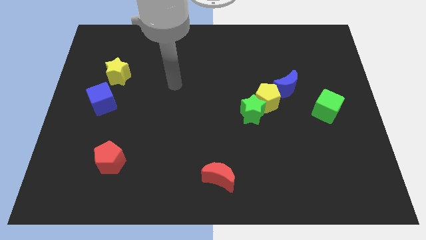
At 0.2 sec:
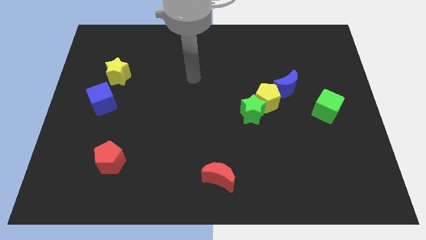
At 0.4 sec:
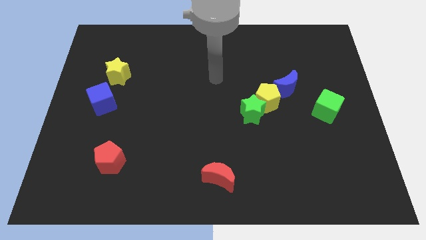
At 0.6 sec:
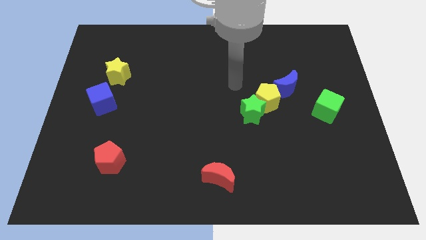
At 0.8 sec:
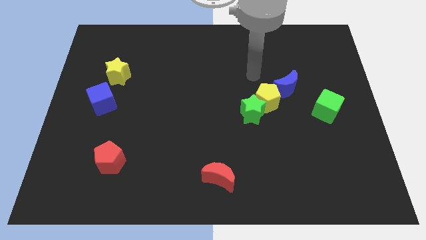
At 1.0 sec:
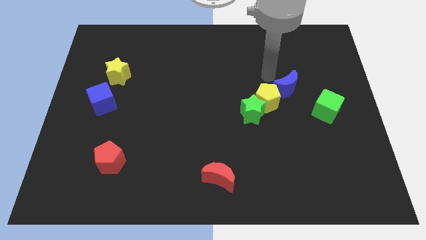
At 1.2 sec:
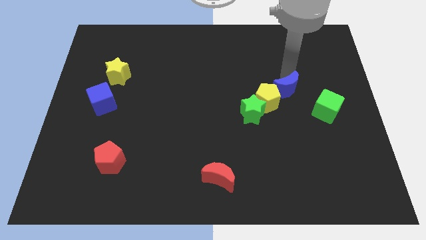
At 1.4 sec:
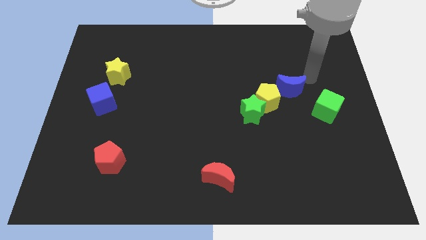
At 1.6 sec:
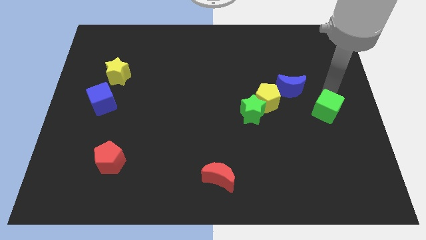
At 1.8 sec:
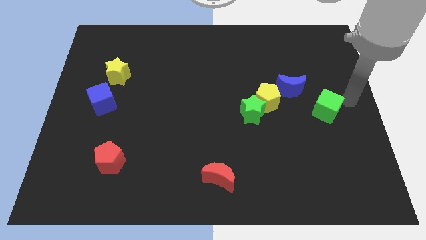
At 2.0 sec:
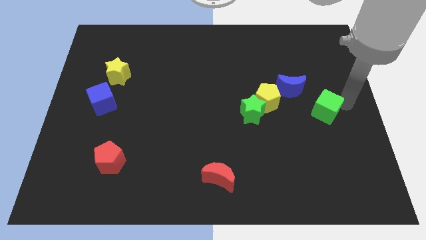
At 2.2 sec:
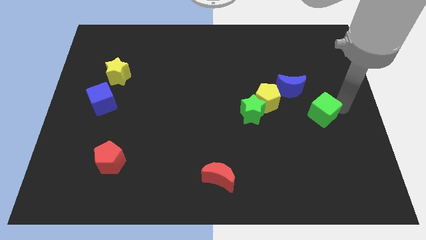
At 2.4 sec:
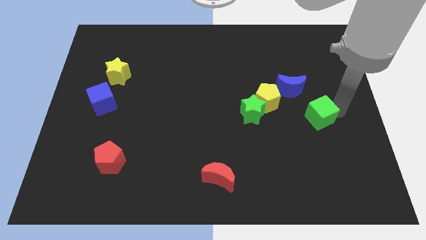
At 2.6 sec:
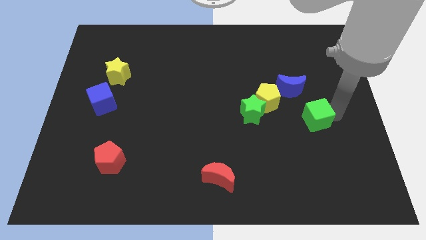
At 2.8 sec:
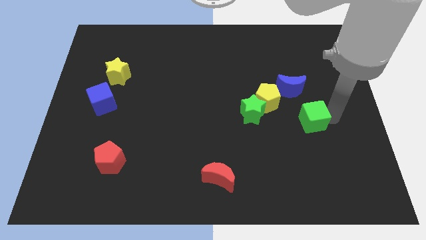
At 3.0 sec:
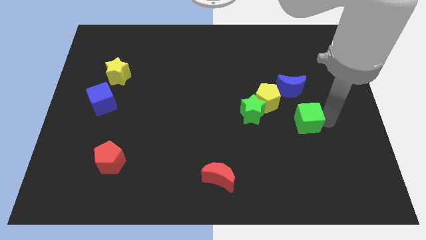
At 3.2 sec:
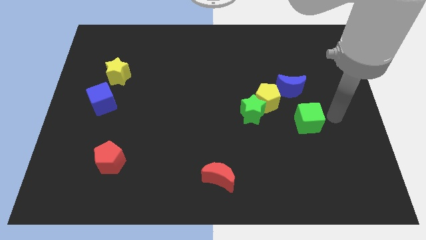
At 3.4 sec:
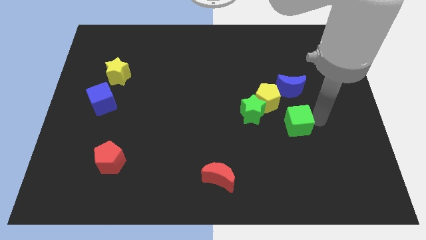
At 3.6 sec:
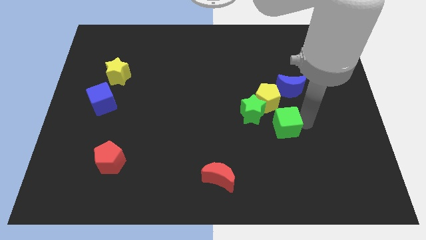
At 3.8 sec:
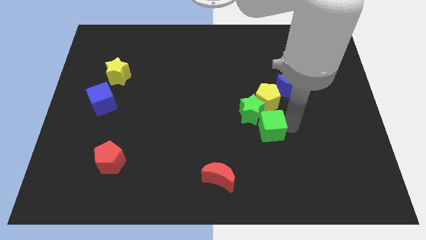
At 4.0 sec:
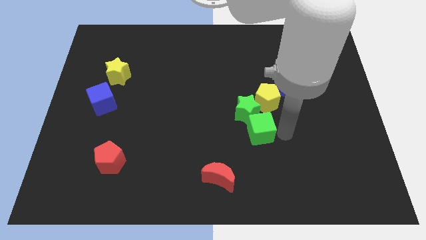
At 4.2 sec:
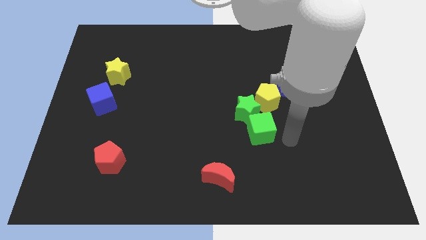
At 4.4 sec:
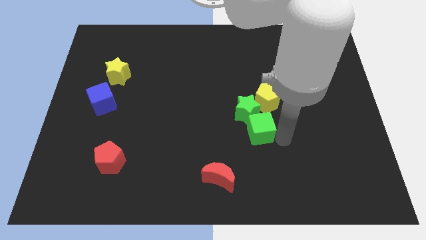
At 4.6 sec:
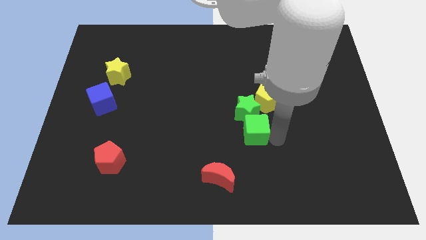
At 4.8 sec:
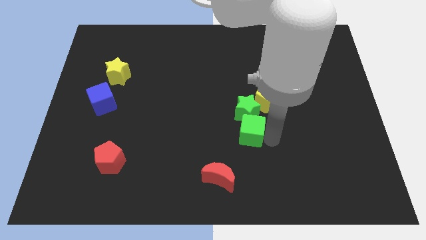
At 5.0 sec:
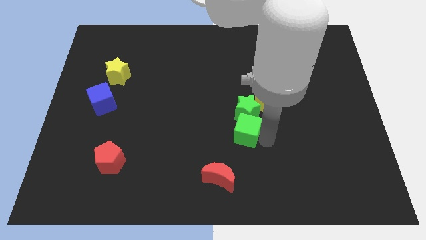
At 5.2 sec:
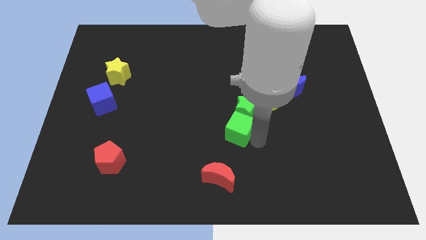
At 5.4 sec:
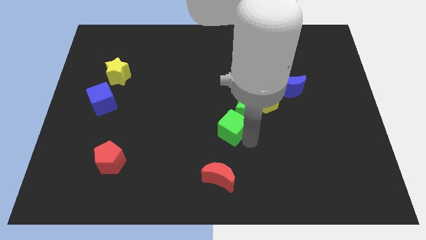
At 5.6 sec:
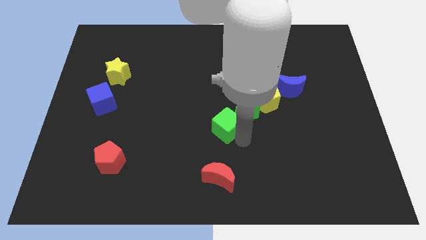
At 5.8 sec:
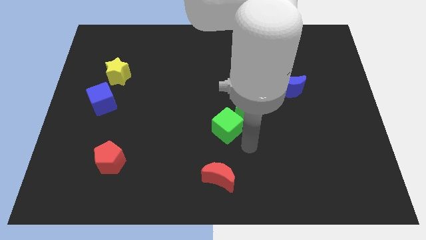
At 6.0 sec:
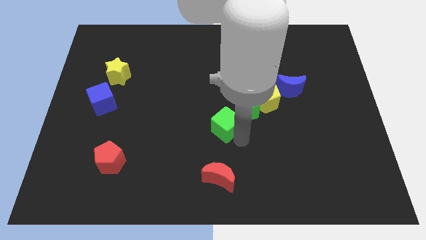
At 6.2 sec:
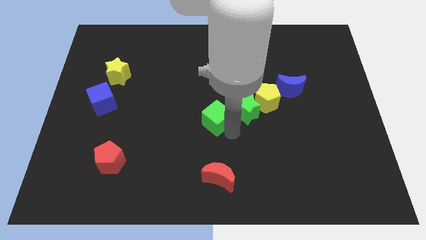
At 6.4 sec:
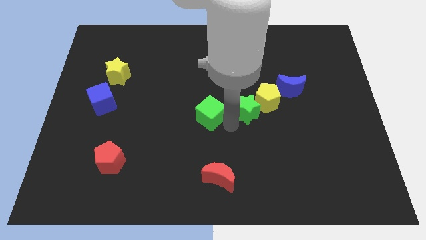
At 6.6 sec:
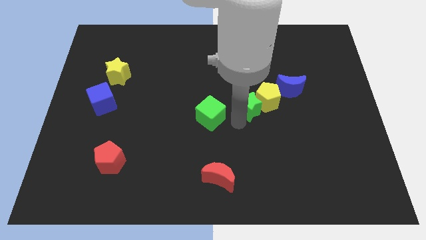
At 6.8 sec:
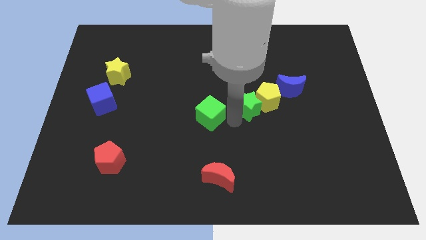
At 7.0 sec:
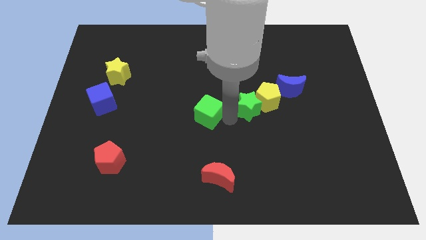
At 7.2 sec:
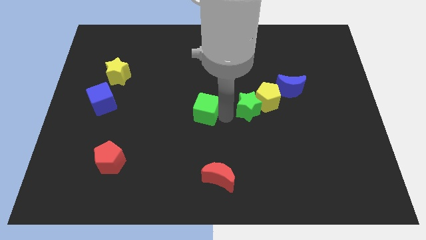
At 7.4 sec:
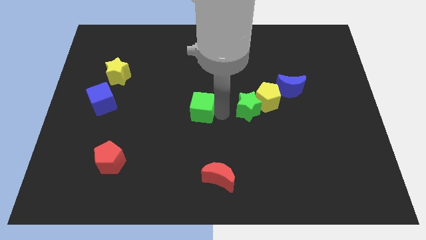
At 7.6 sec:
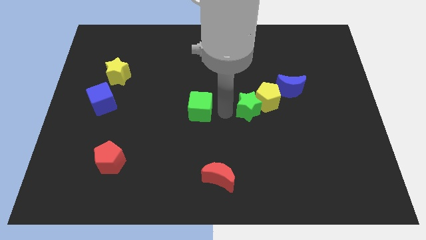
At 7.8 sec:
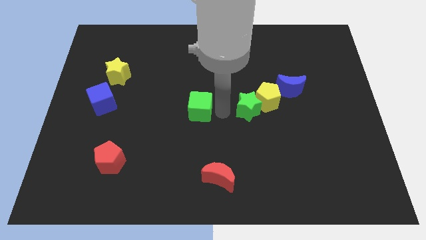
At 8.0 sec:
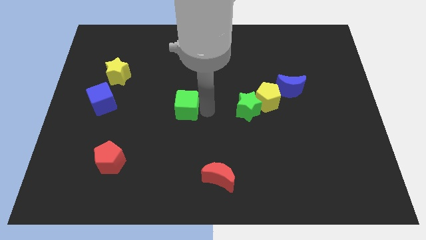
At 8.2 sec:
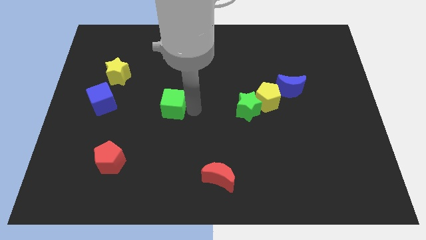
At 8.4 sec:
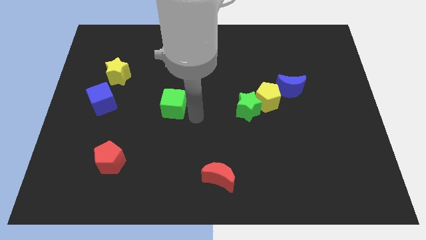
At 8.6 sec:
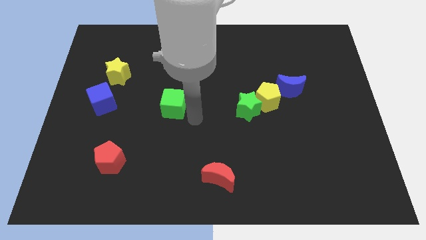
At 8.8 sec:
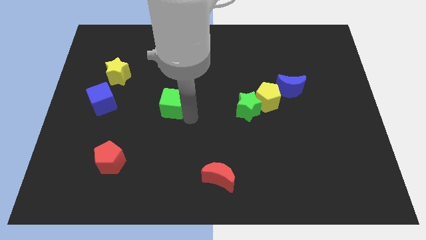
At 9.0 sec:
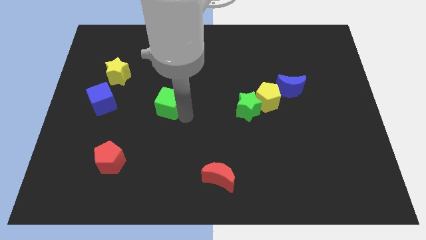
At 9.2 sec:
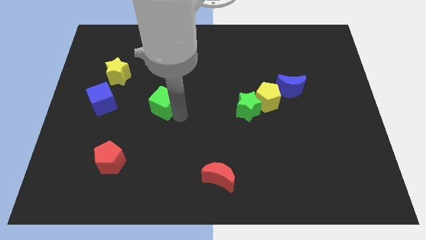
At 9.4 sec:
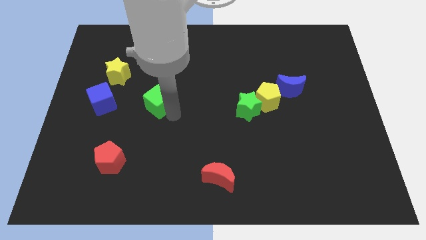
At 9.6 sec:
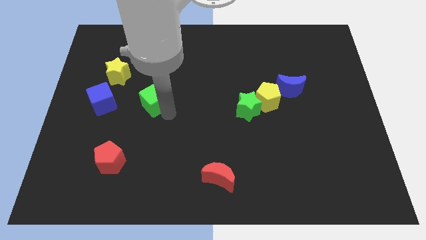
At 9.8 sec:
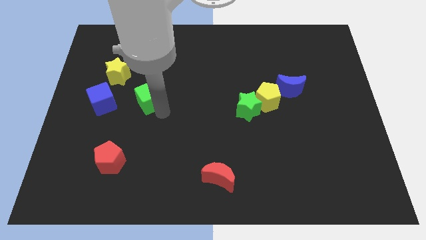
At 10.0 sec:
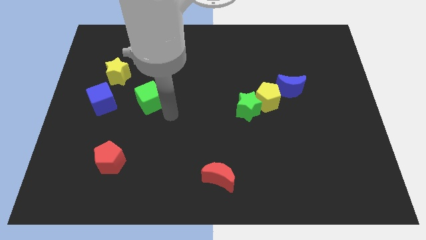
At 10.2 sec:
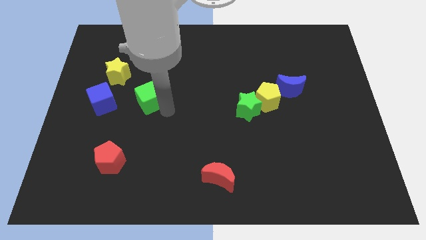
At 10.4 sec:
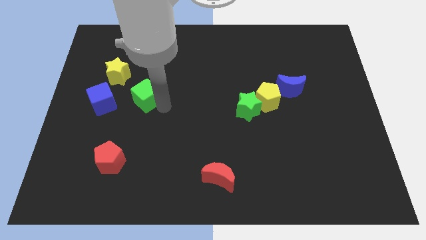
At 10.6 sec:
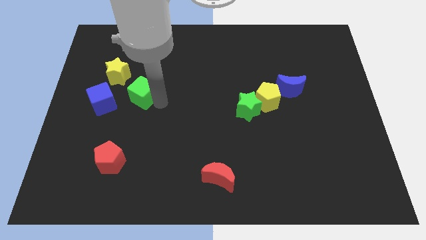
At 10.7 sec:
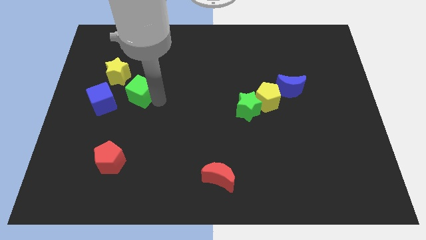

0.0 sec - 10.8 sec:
move the green cube to the top right of the blue cube

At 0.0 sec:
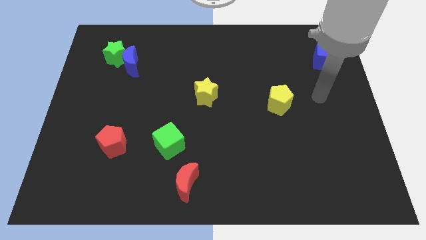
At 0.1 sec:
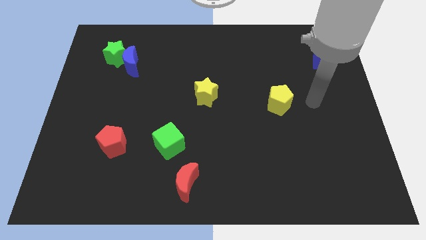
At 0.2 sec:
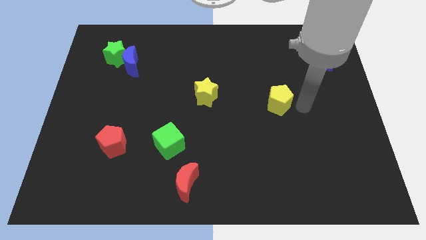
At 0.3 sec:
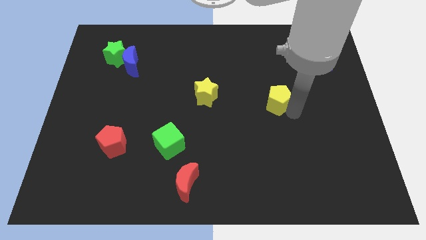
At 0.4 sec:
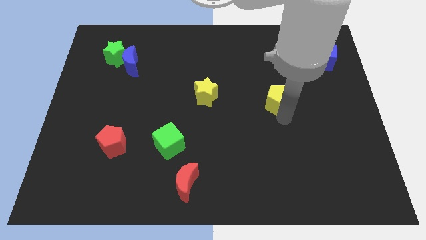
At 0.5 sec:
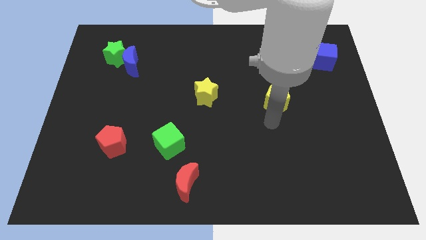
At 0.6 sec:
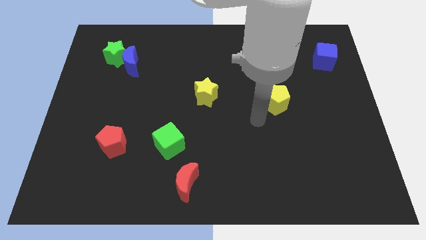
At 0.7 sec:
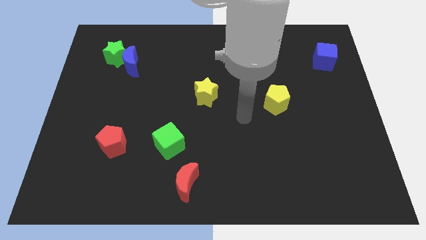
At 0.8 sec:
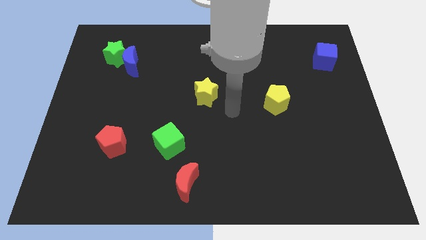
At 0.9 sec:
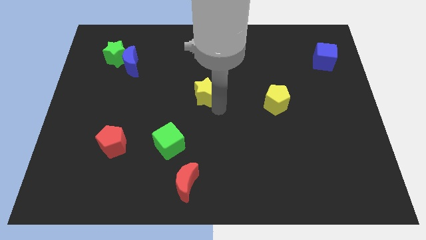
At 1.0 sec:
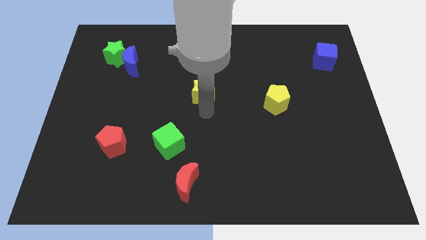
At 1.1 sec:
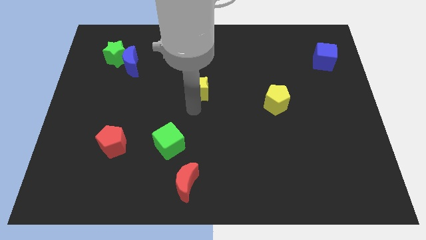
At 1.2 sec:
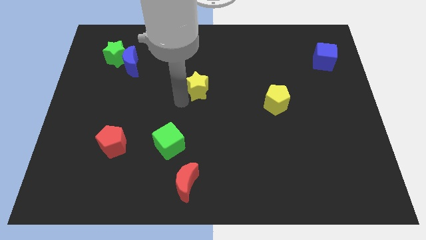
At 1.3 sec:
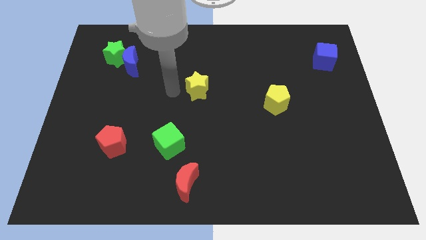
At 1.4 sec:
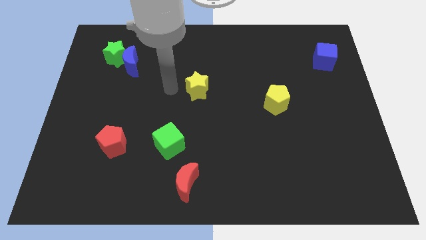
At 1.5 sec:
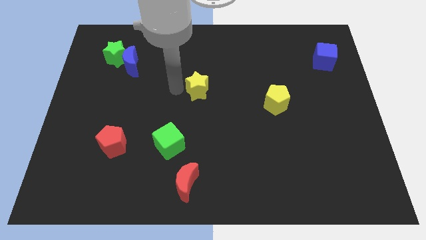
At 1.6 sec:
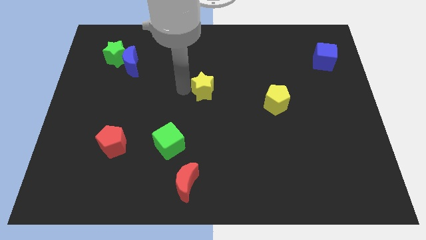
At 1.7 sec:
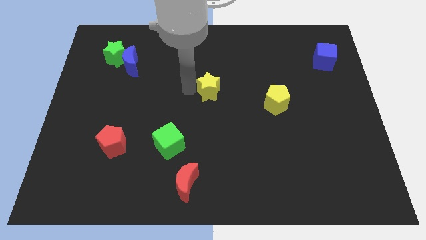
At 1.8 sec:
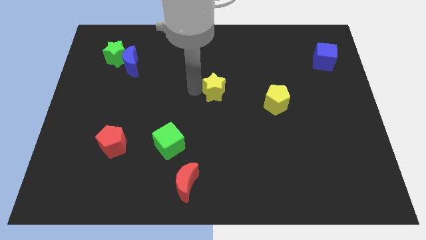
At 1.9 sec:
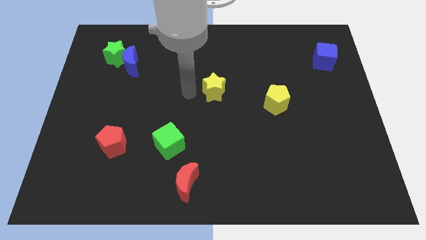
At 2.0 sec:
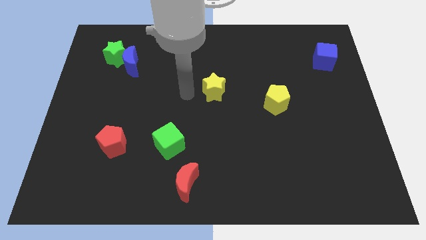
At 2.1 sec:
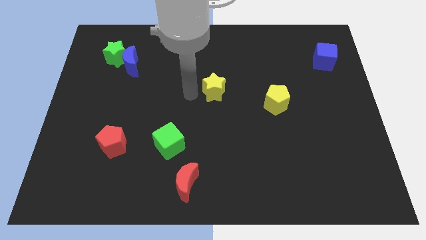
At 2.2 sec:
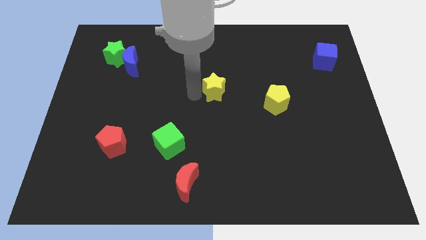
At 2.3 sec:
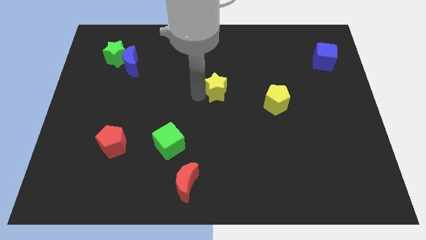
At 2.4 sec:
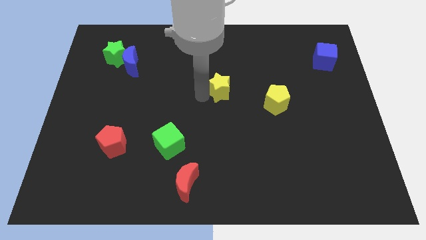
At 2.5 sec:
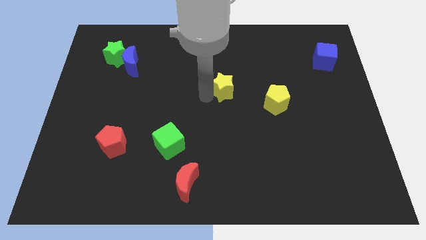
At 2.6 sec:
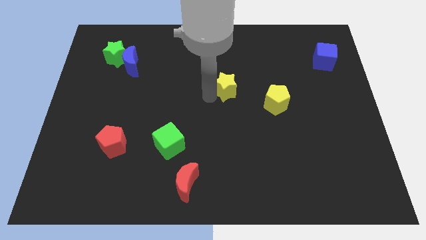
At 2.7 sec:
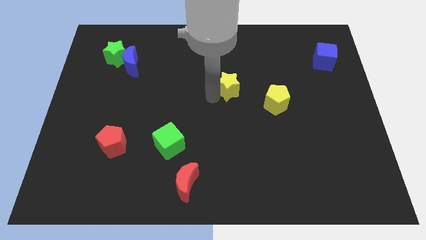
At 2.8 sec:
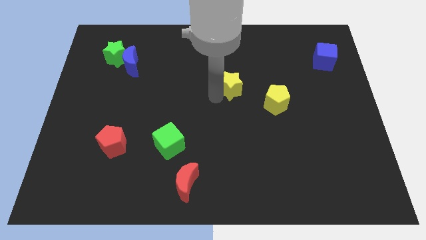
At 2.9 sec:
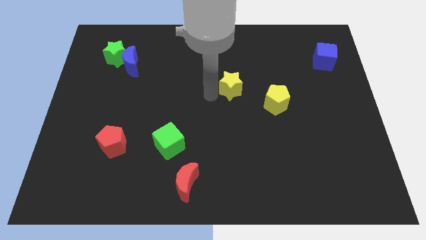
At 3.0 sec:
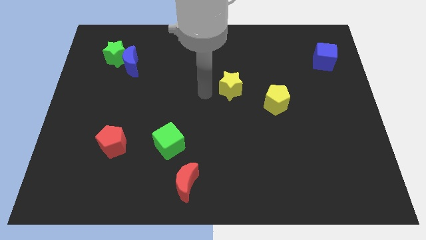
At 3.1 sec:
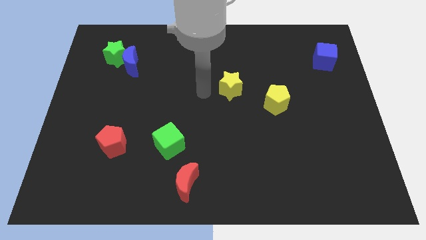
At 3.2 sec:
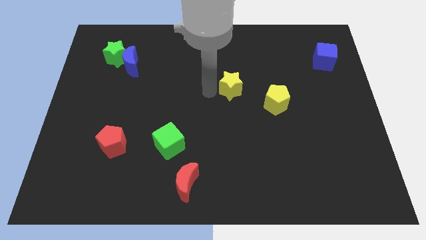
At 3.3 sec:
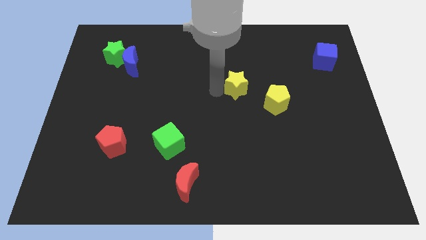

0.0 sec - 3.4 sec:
put the yellow star diagonally up and to the left of the yellow pentagon
